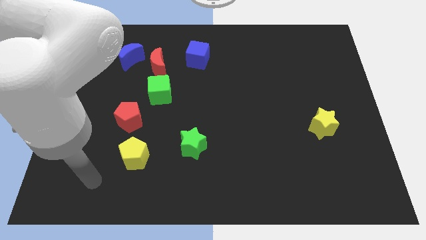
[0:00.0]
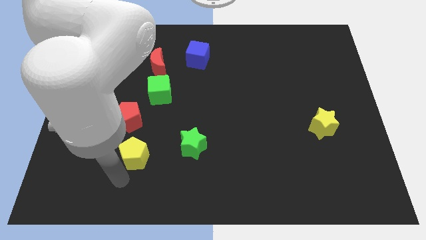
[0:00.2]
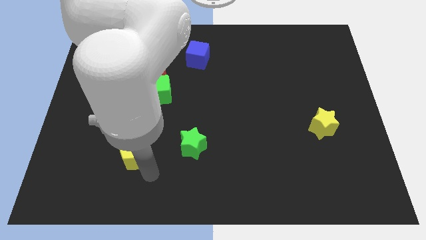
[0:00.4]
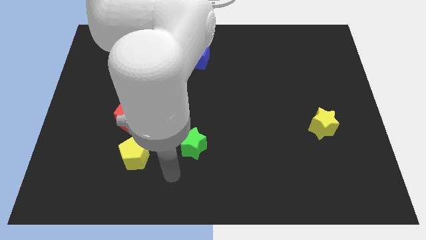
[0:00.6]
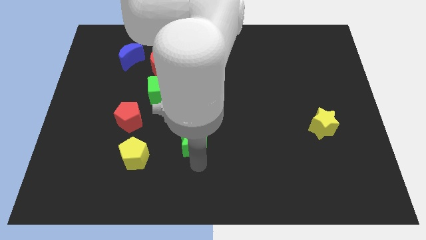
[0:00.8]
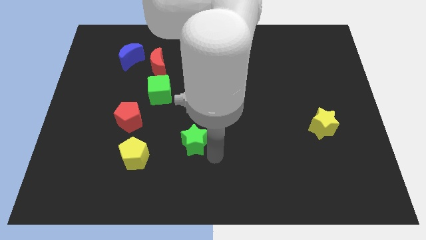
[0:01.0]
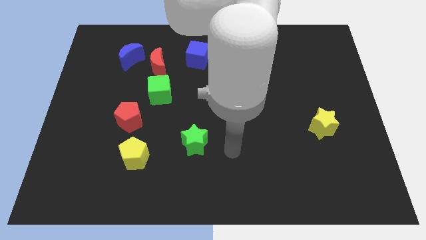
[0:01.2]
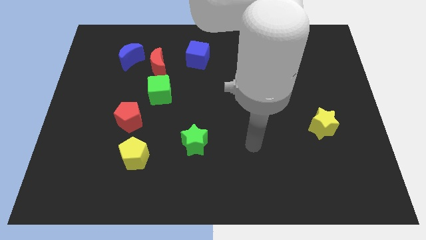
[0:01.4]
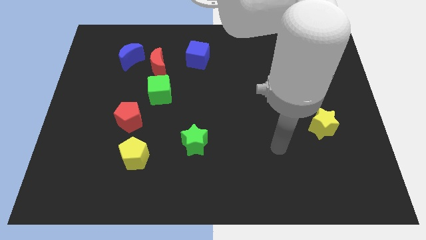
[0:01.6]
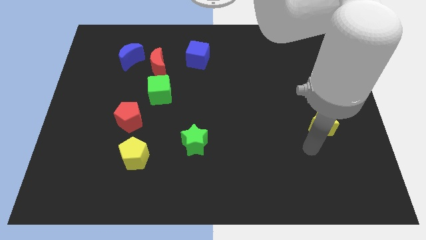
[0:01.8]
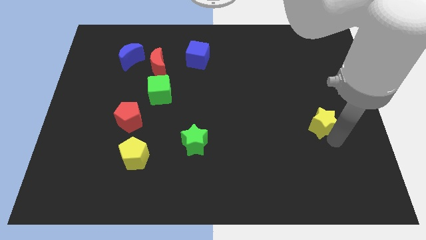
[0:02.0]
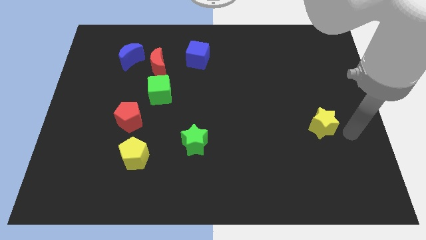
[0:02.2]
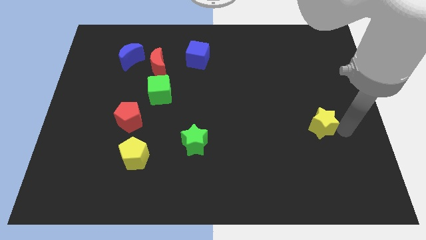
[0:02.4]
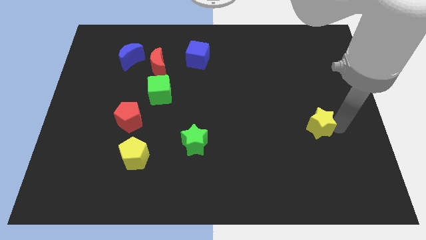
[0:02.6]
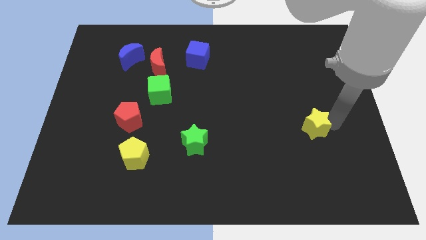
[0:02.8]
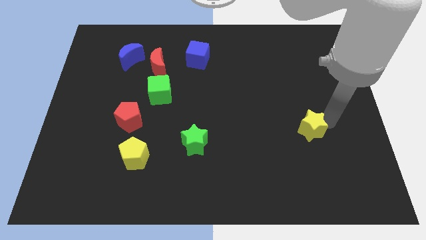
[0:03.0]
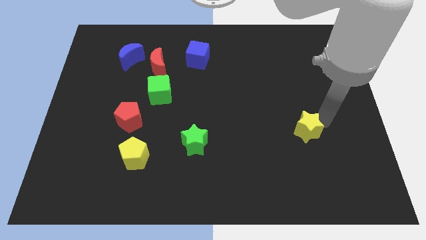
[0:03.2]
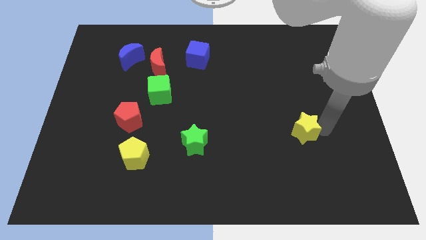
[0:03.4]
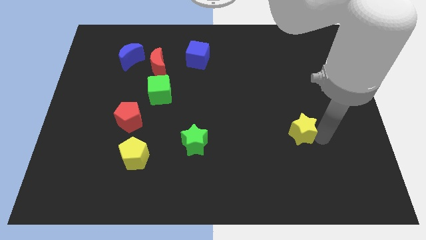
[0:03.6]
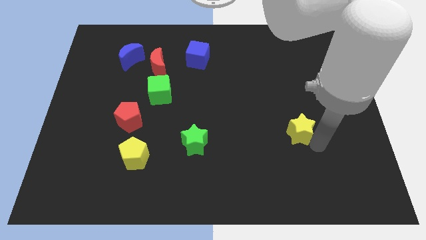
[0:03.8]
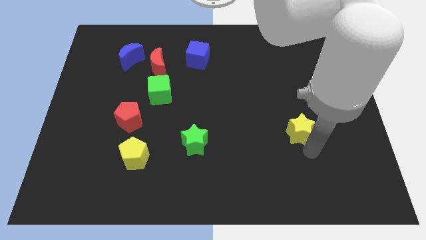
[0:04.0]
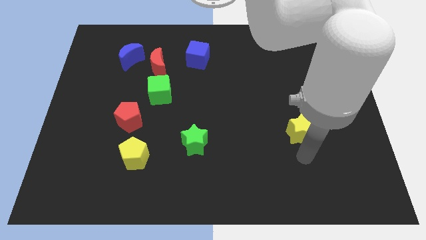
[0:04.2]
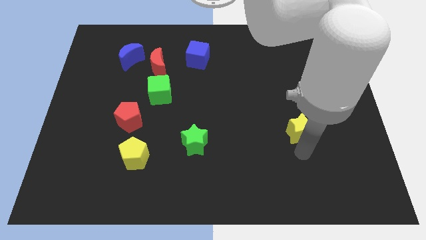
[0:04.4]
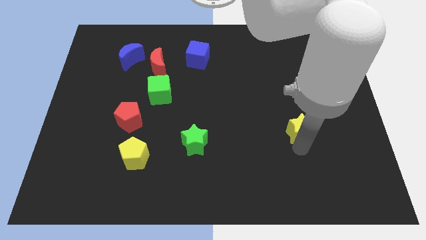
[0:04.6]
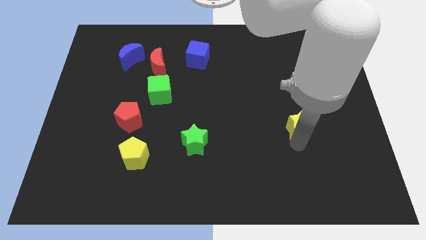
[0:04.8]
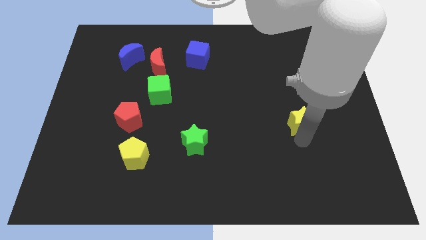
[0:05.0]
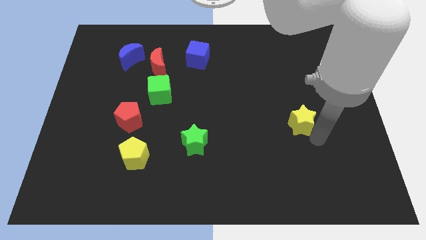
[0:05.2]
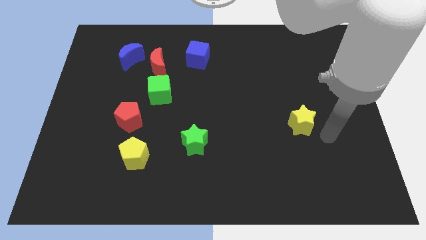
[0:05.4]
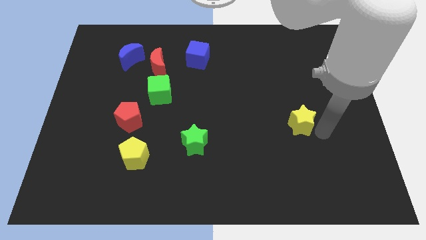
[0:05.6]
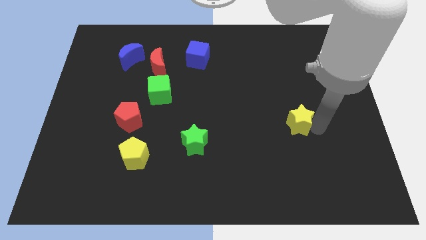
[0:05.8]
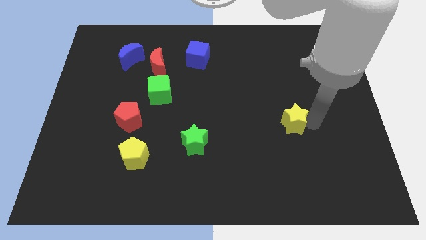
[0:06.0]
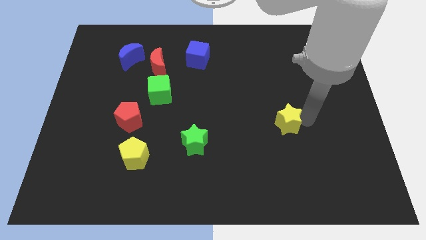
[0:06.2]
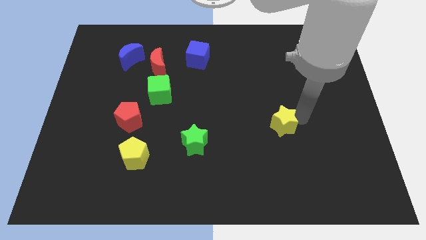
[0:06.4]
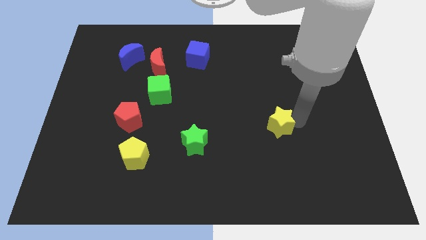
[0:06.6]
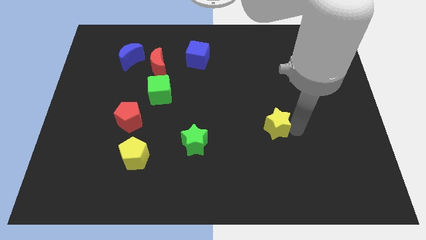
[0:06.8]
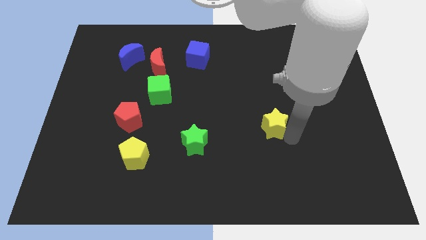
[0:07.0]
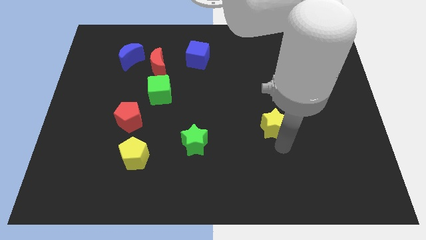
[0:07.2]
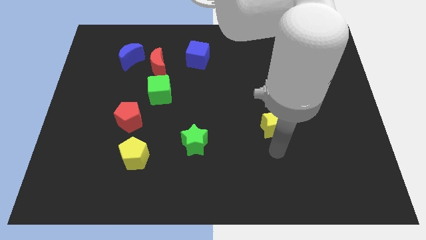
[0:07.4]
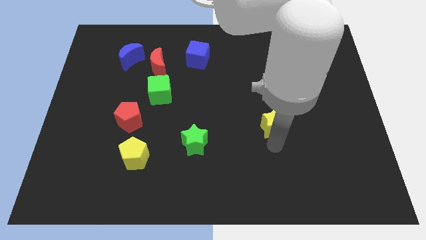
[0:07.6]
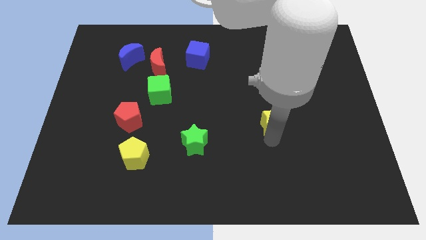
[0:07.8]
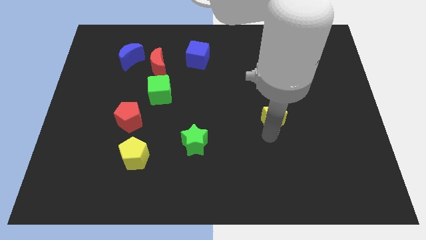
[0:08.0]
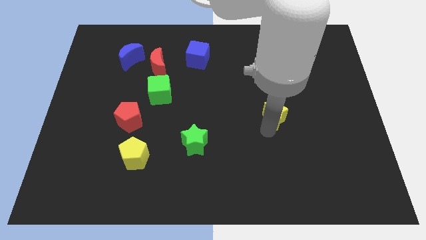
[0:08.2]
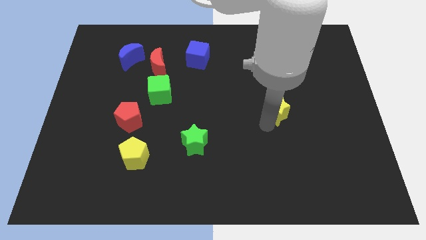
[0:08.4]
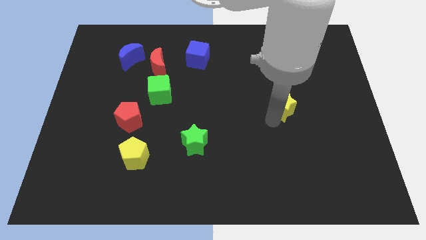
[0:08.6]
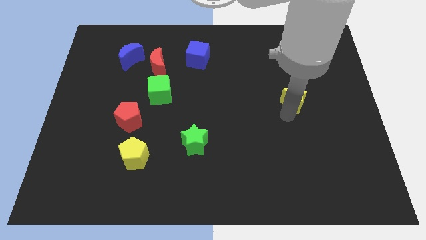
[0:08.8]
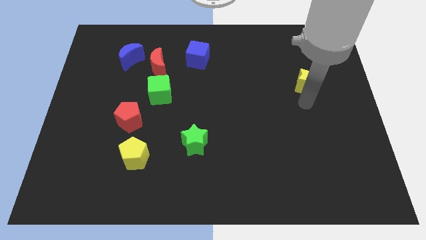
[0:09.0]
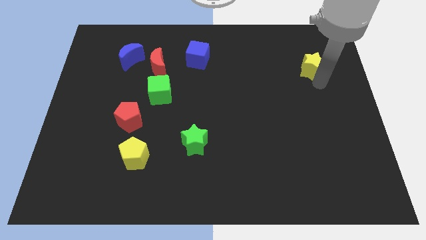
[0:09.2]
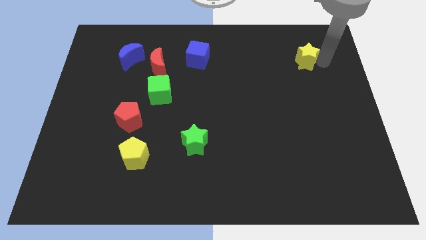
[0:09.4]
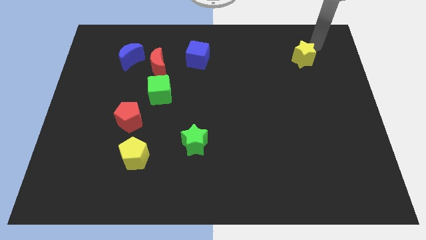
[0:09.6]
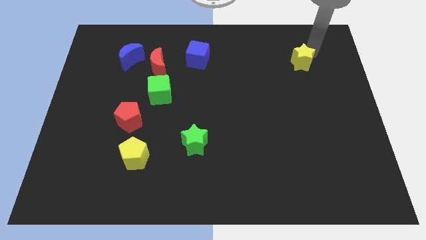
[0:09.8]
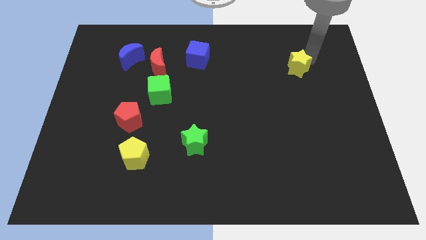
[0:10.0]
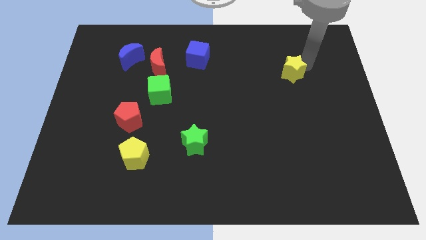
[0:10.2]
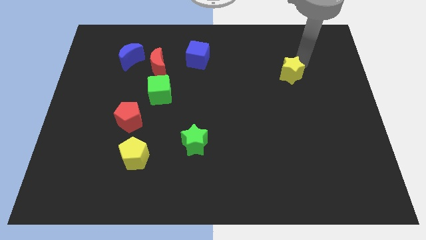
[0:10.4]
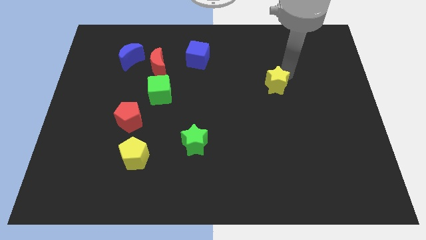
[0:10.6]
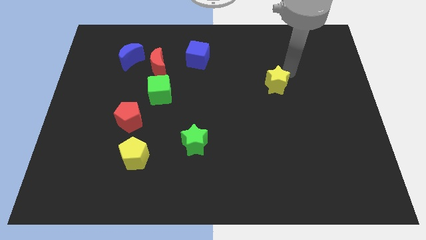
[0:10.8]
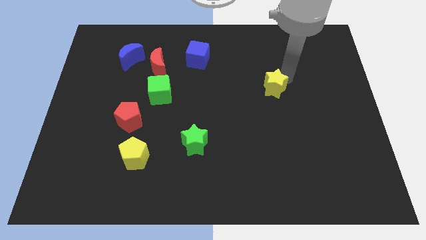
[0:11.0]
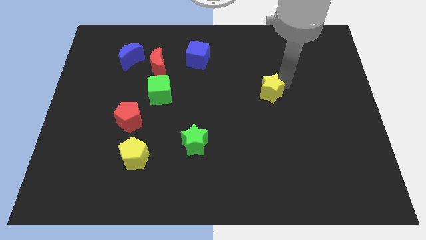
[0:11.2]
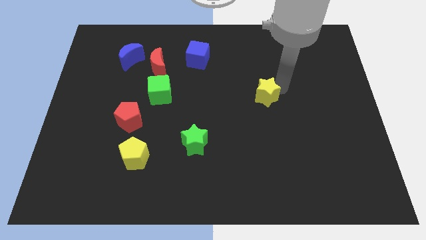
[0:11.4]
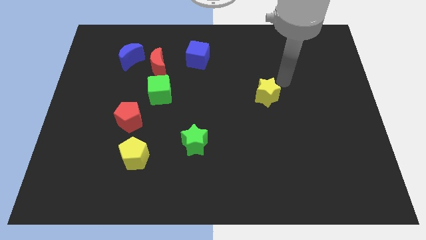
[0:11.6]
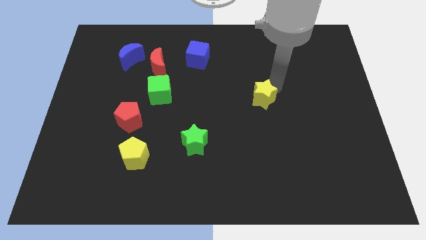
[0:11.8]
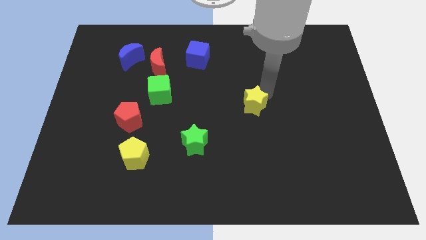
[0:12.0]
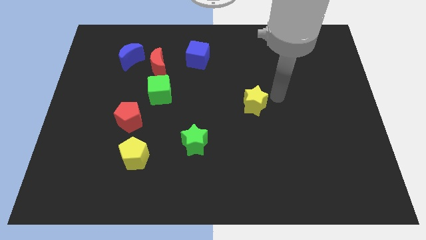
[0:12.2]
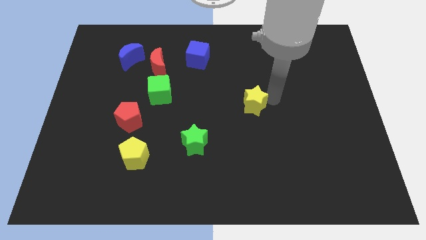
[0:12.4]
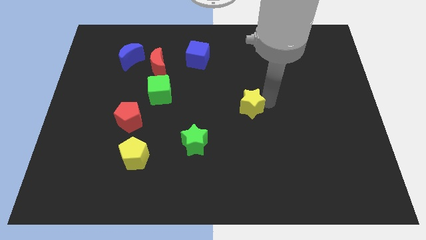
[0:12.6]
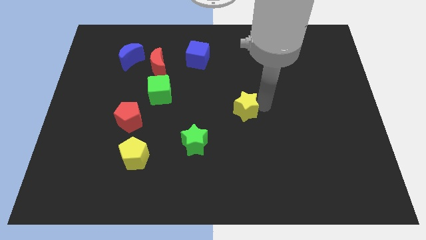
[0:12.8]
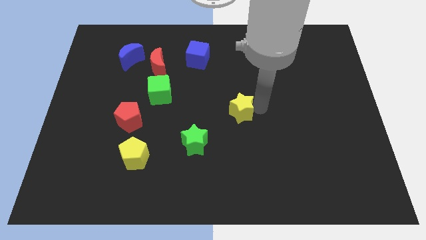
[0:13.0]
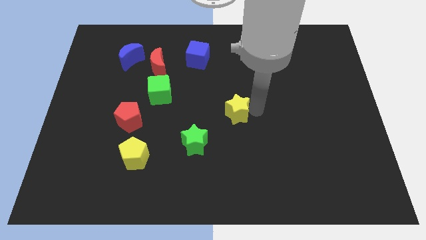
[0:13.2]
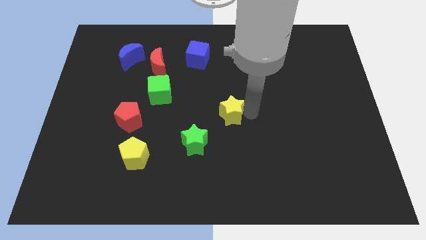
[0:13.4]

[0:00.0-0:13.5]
slide the yellow star to the left

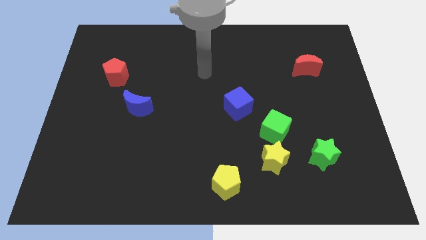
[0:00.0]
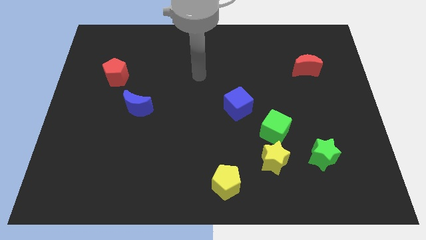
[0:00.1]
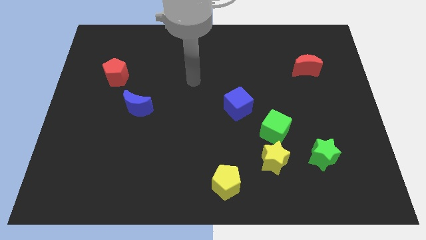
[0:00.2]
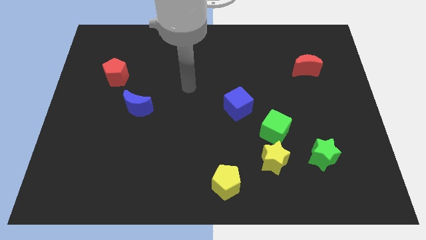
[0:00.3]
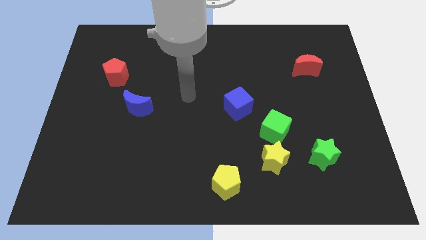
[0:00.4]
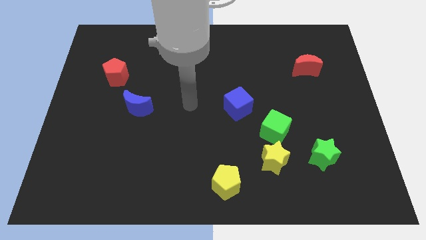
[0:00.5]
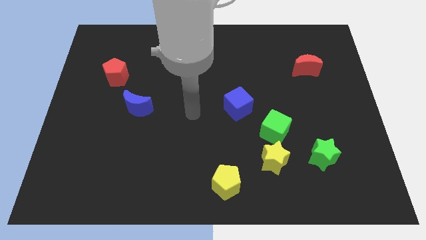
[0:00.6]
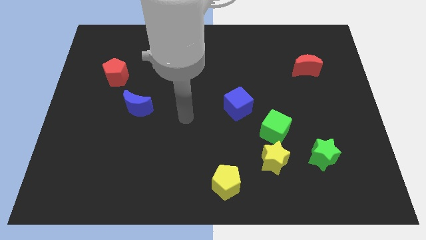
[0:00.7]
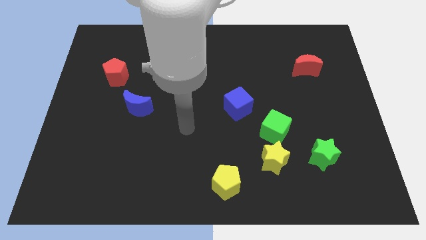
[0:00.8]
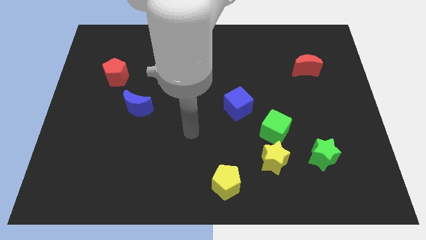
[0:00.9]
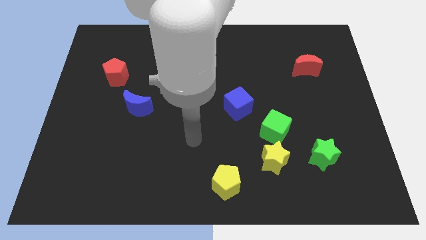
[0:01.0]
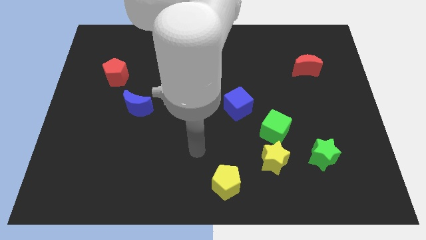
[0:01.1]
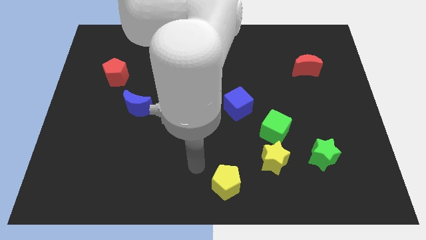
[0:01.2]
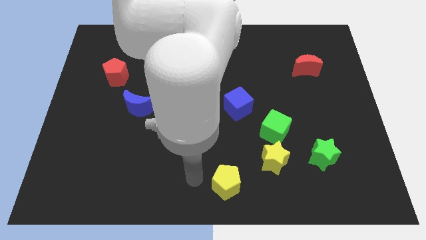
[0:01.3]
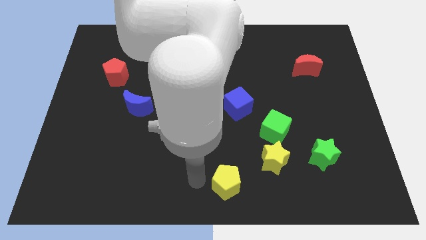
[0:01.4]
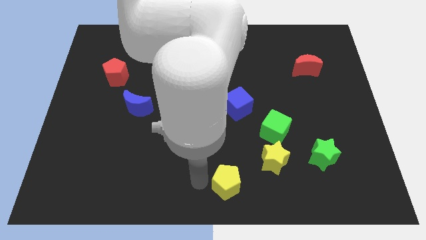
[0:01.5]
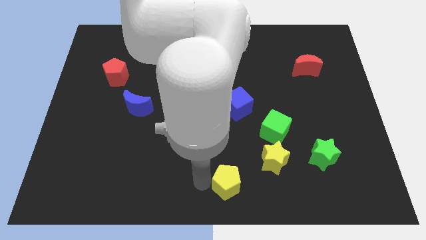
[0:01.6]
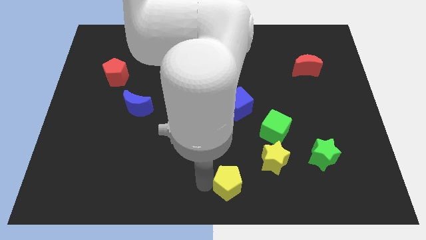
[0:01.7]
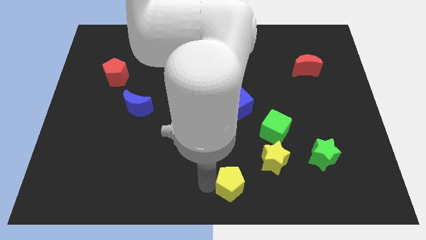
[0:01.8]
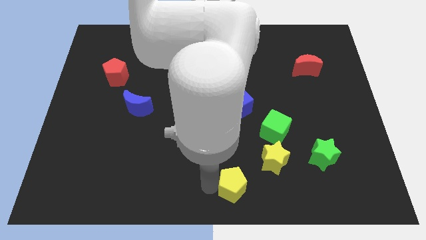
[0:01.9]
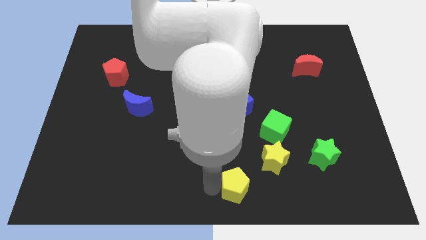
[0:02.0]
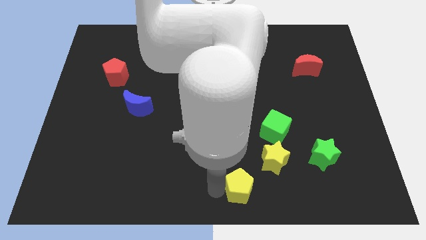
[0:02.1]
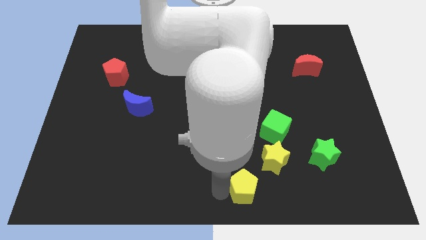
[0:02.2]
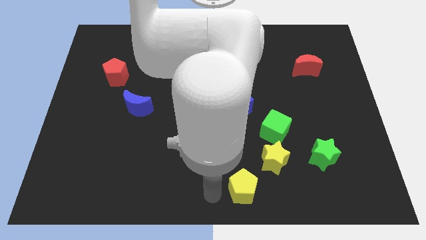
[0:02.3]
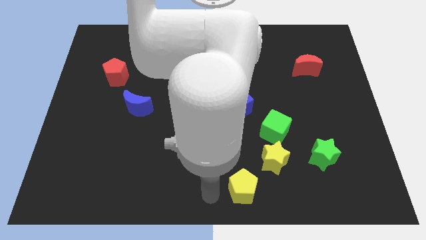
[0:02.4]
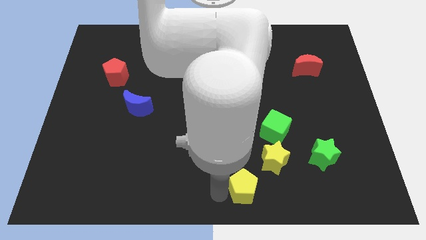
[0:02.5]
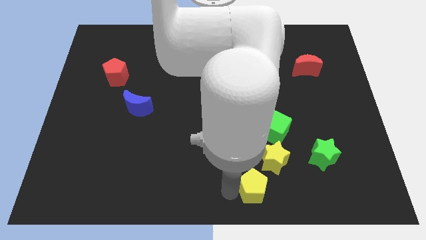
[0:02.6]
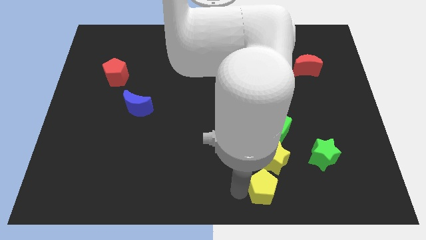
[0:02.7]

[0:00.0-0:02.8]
move the yellow pentagon a little right
